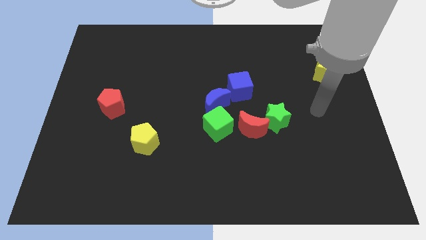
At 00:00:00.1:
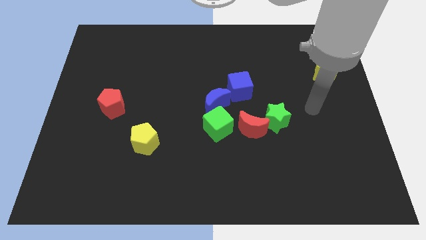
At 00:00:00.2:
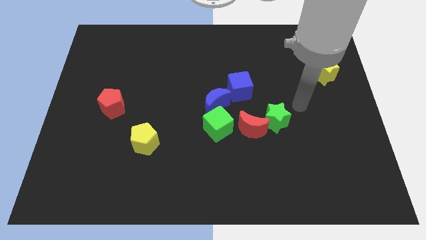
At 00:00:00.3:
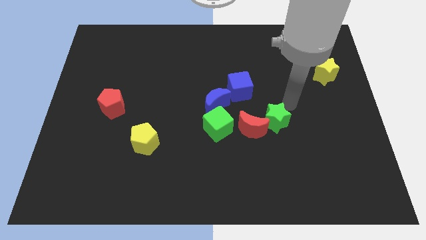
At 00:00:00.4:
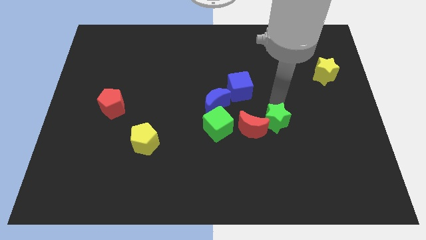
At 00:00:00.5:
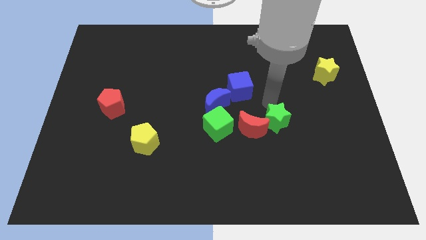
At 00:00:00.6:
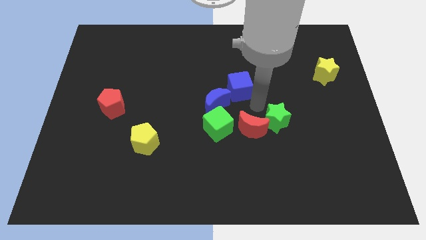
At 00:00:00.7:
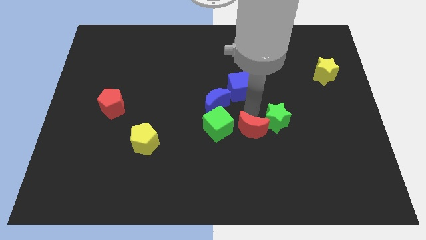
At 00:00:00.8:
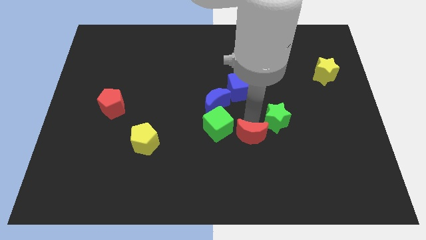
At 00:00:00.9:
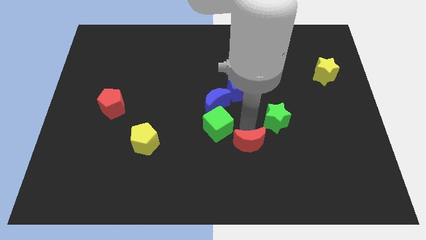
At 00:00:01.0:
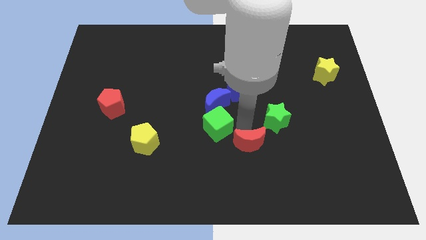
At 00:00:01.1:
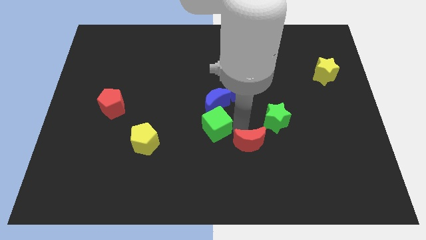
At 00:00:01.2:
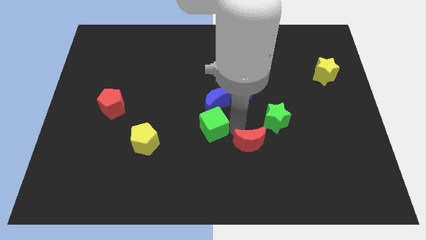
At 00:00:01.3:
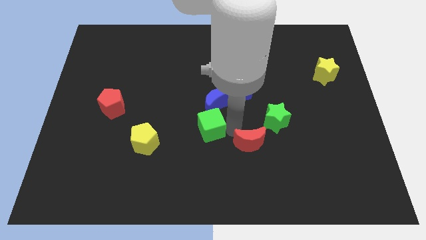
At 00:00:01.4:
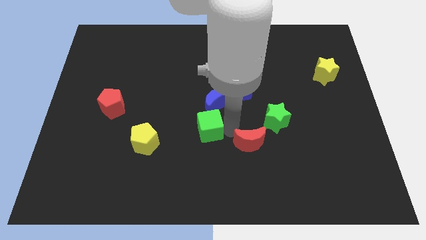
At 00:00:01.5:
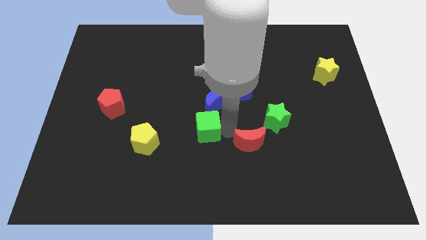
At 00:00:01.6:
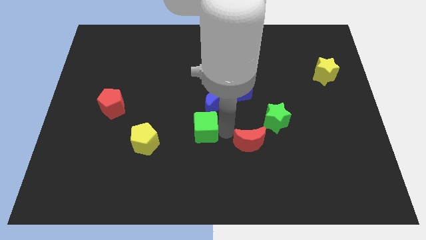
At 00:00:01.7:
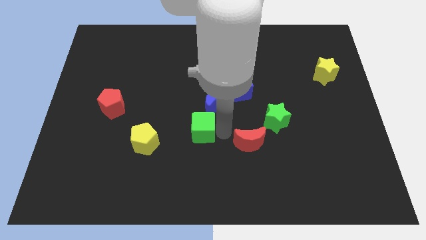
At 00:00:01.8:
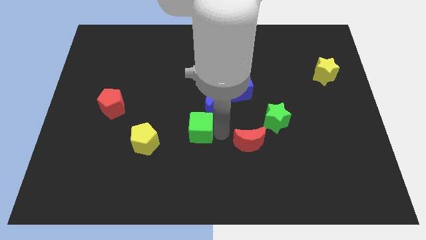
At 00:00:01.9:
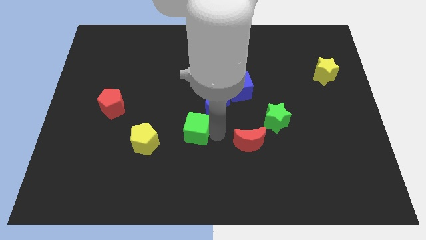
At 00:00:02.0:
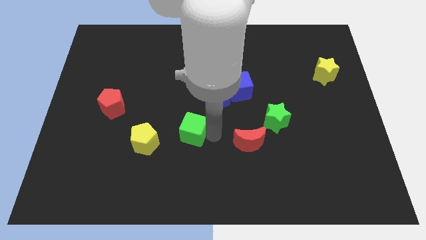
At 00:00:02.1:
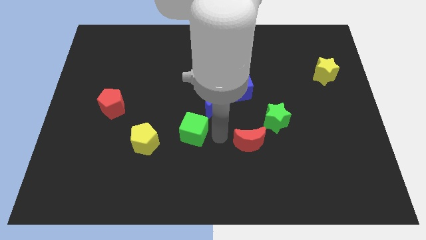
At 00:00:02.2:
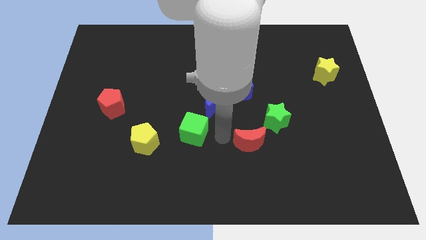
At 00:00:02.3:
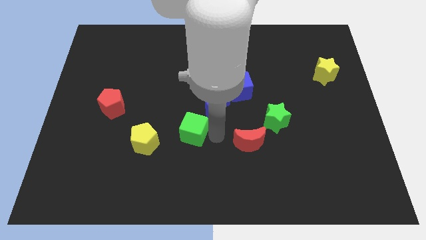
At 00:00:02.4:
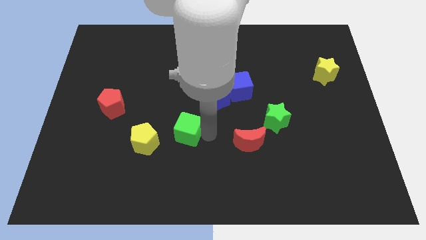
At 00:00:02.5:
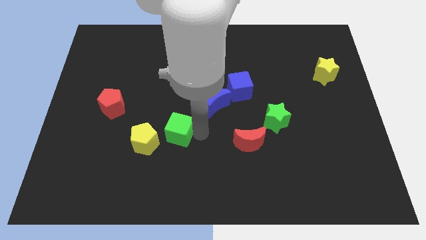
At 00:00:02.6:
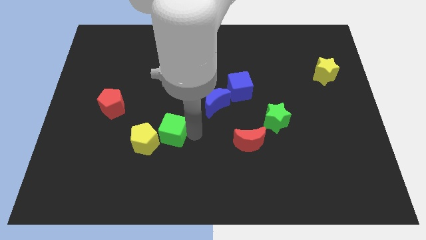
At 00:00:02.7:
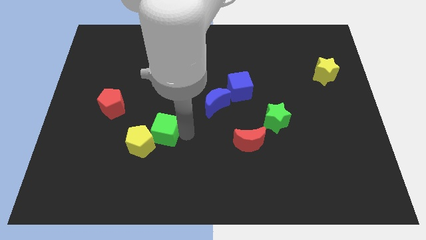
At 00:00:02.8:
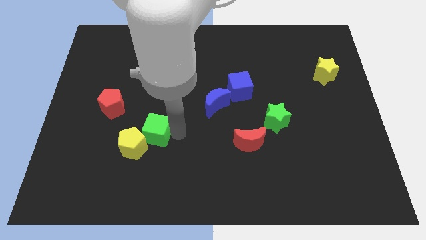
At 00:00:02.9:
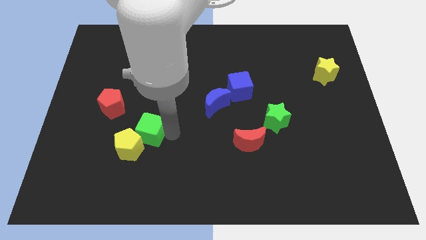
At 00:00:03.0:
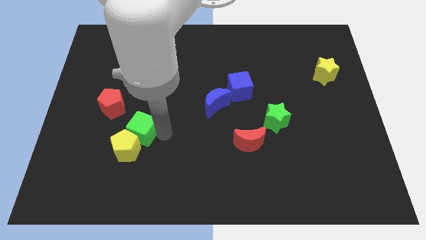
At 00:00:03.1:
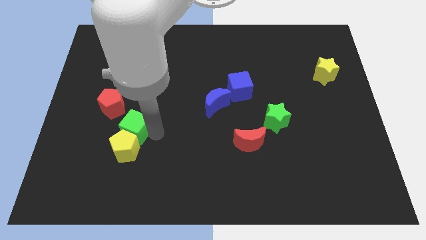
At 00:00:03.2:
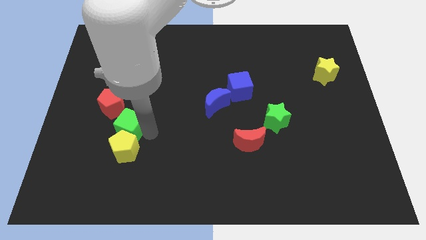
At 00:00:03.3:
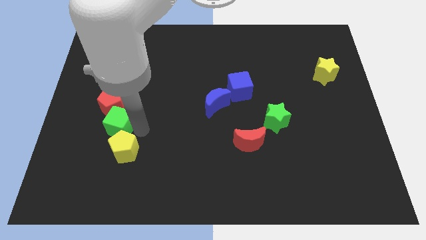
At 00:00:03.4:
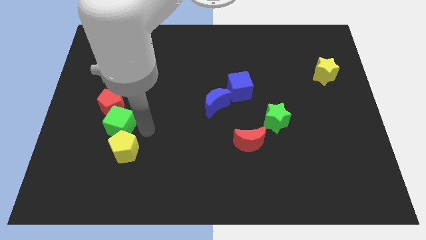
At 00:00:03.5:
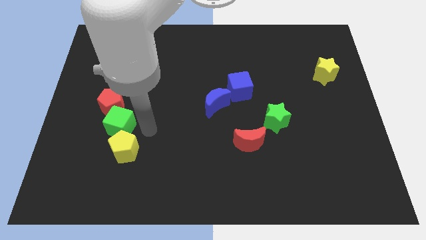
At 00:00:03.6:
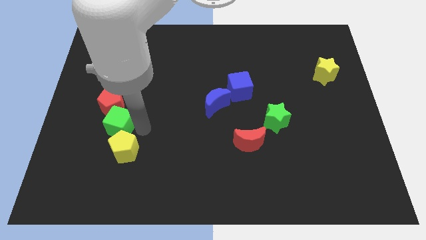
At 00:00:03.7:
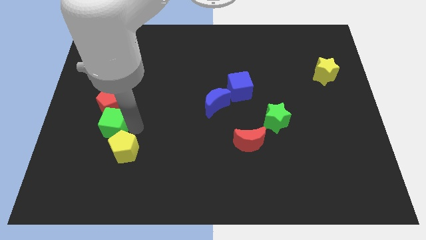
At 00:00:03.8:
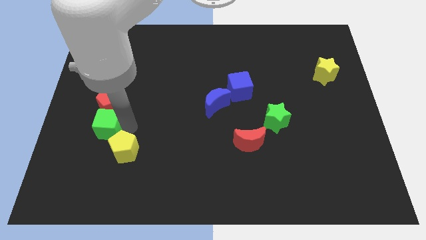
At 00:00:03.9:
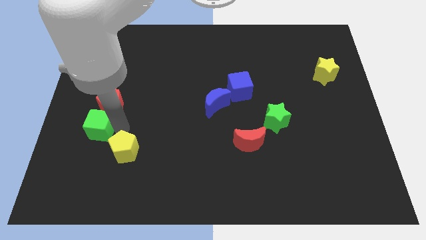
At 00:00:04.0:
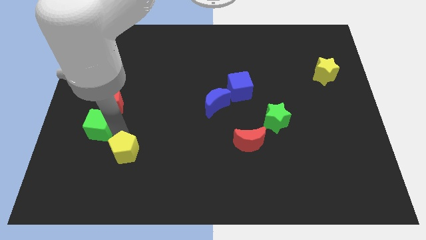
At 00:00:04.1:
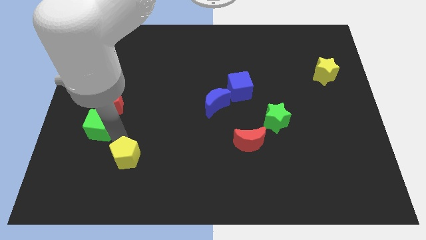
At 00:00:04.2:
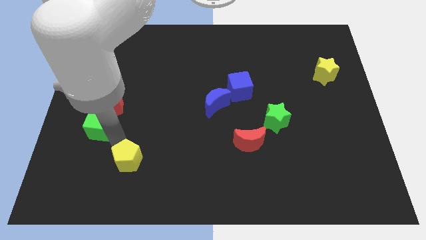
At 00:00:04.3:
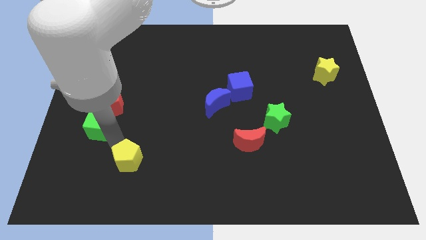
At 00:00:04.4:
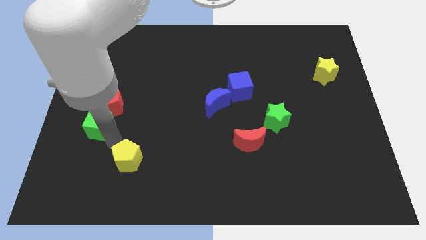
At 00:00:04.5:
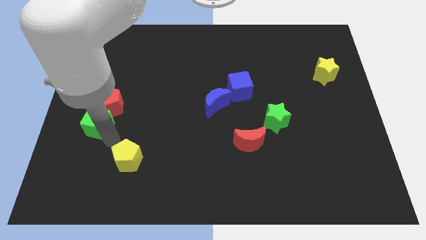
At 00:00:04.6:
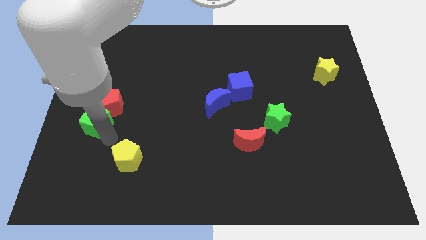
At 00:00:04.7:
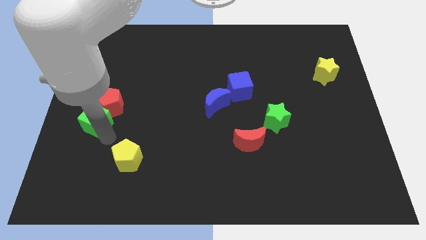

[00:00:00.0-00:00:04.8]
push the green cube to the left side

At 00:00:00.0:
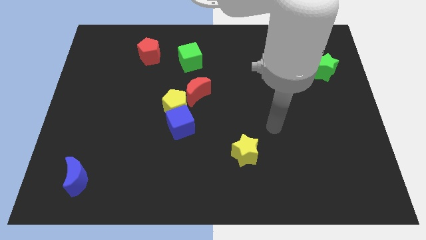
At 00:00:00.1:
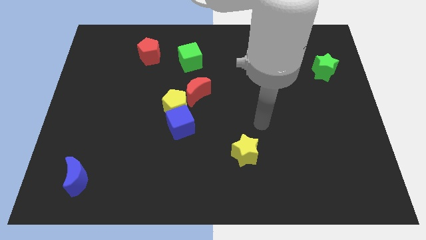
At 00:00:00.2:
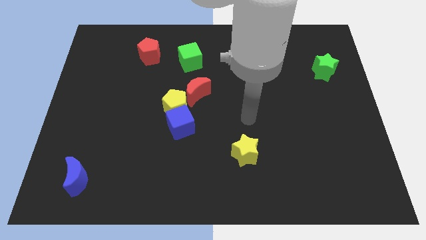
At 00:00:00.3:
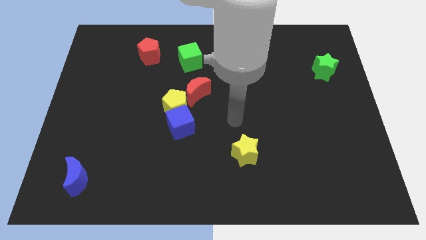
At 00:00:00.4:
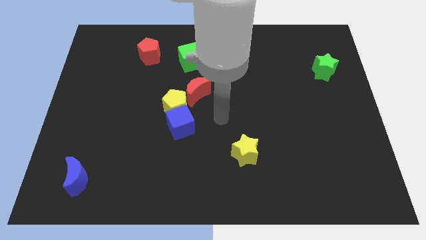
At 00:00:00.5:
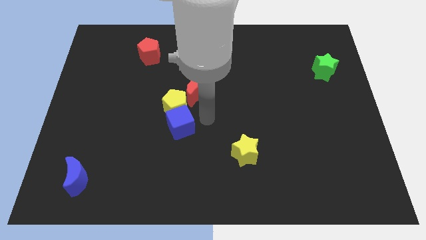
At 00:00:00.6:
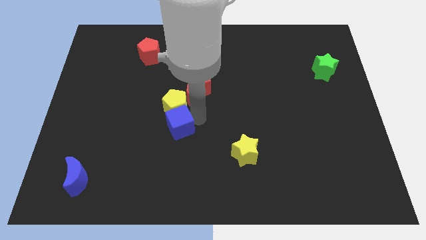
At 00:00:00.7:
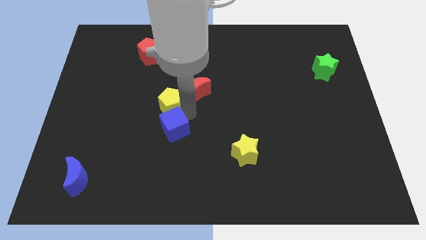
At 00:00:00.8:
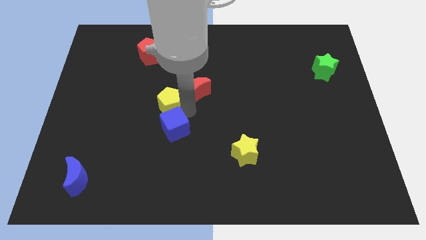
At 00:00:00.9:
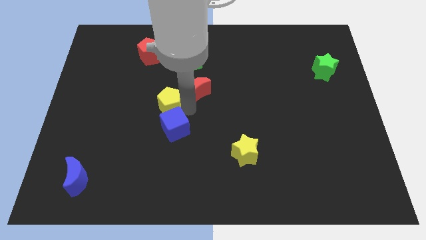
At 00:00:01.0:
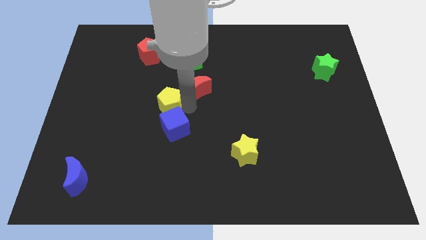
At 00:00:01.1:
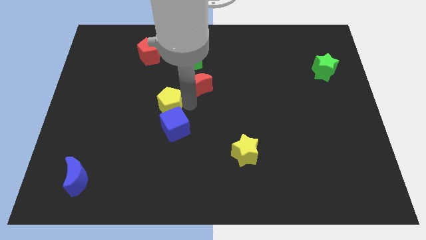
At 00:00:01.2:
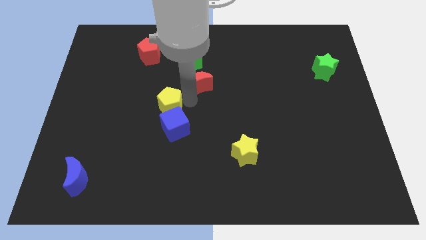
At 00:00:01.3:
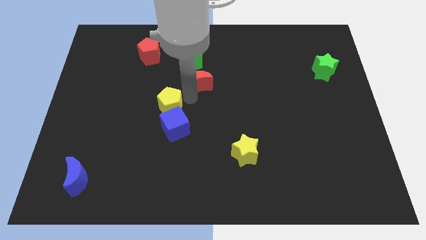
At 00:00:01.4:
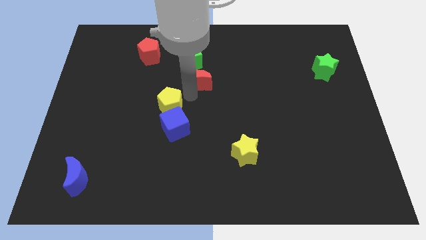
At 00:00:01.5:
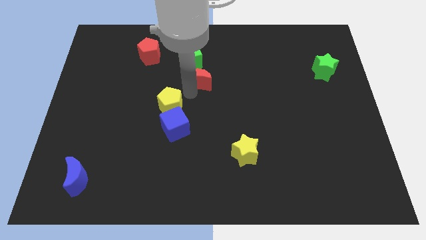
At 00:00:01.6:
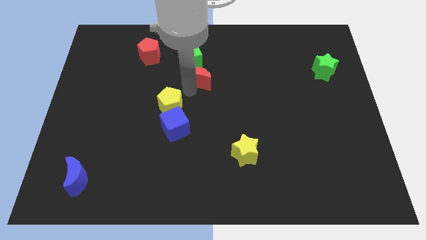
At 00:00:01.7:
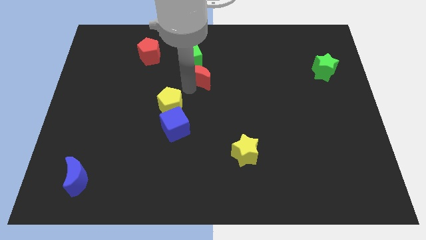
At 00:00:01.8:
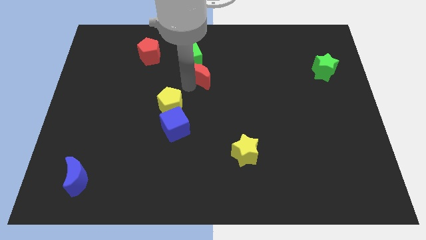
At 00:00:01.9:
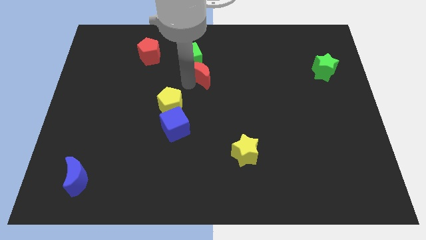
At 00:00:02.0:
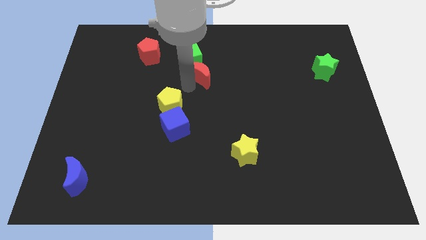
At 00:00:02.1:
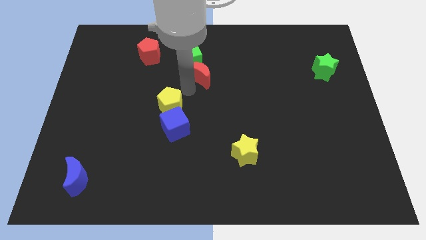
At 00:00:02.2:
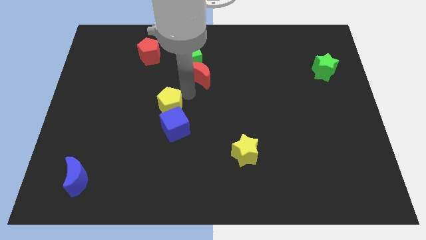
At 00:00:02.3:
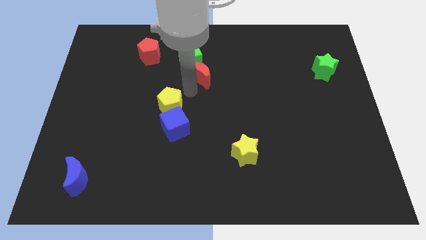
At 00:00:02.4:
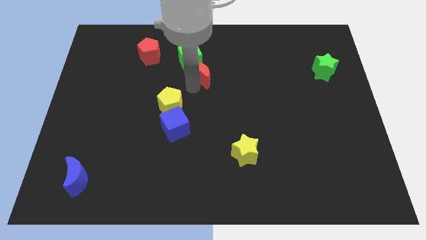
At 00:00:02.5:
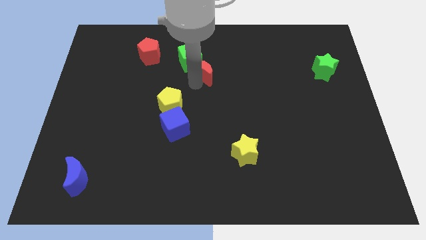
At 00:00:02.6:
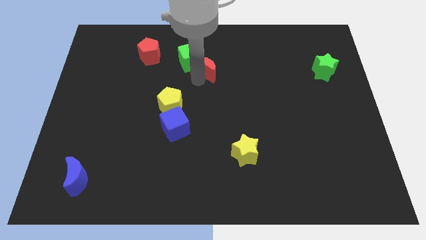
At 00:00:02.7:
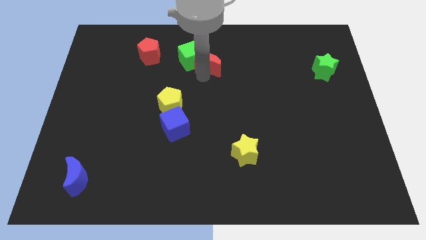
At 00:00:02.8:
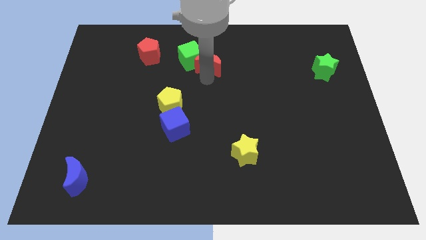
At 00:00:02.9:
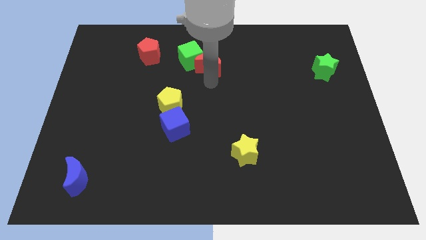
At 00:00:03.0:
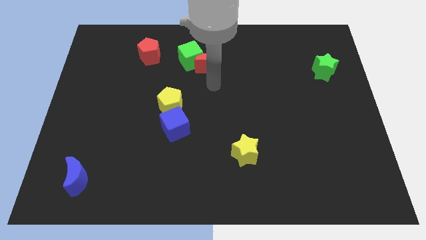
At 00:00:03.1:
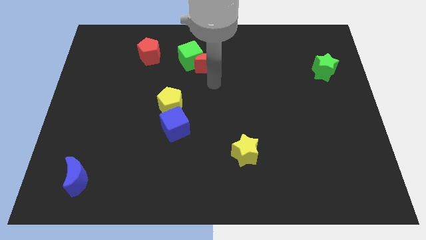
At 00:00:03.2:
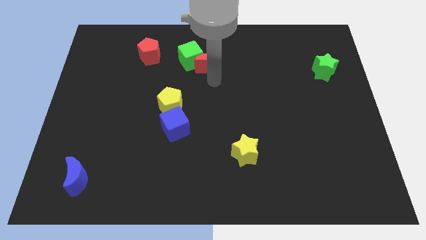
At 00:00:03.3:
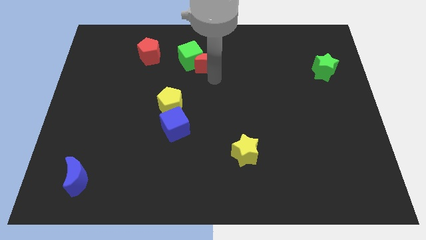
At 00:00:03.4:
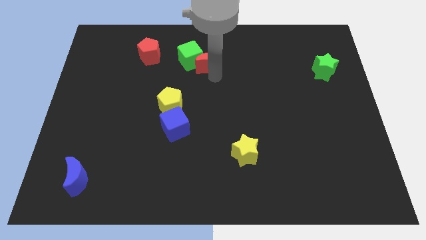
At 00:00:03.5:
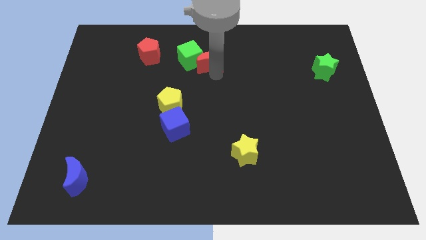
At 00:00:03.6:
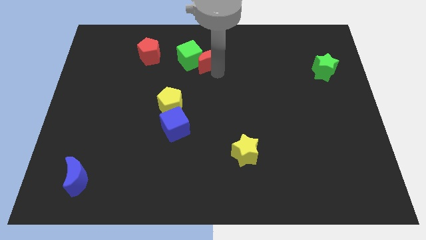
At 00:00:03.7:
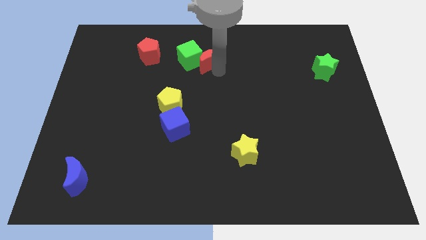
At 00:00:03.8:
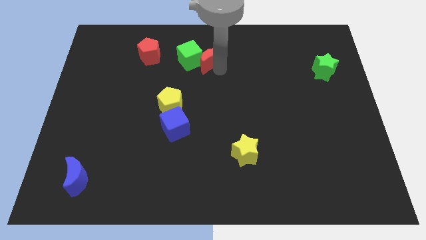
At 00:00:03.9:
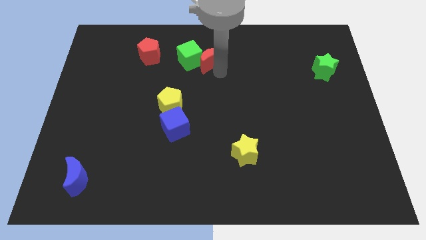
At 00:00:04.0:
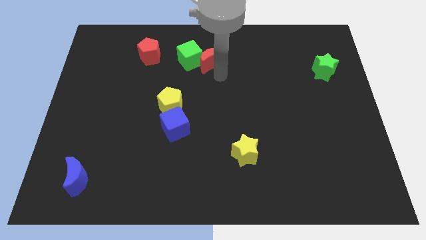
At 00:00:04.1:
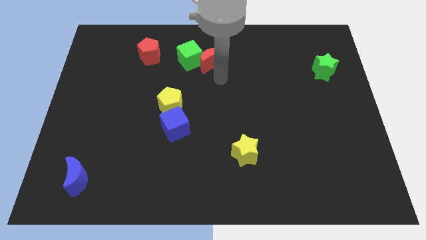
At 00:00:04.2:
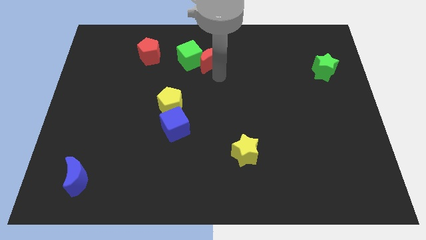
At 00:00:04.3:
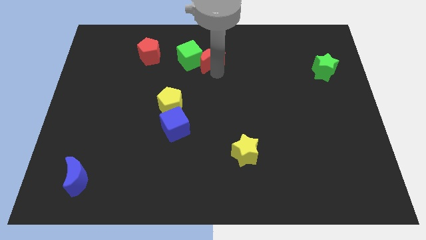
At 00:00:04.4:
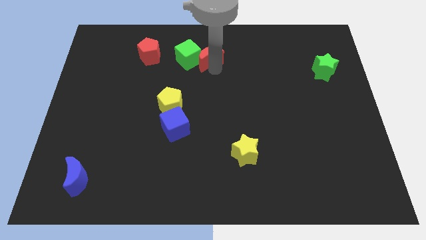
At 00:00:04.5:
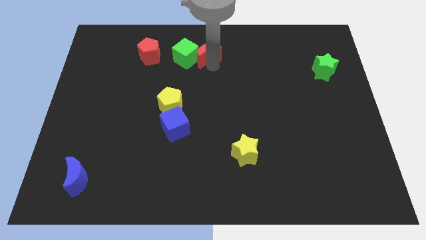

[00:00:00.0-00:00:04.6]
move the red moon to the top
